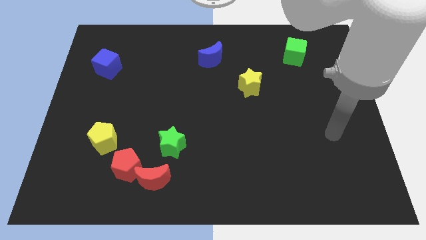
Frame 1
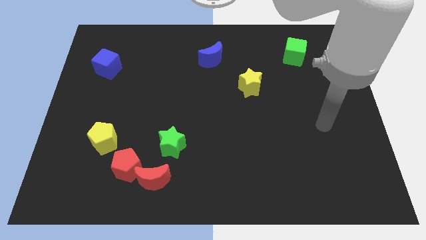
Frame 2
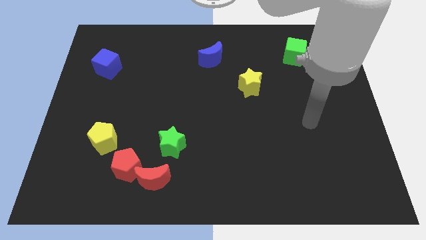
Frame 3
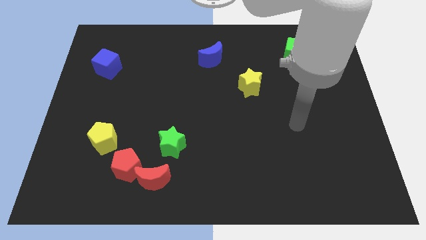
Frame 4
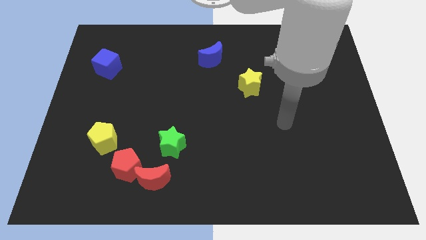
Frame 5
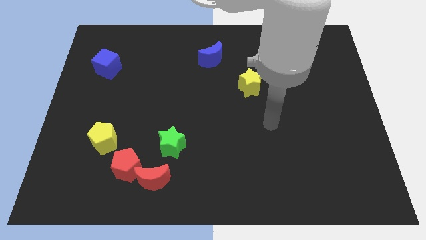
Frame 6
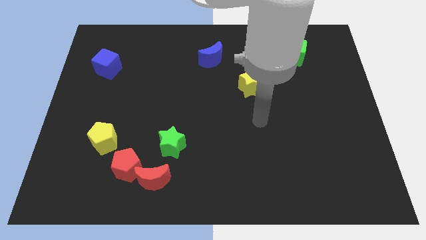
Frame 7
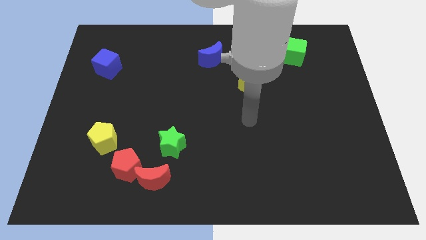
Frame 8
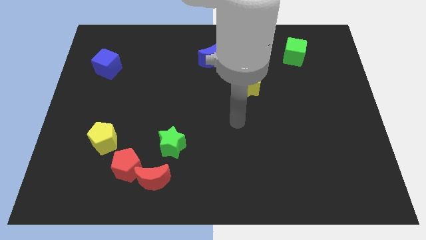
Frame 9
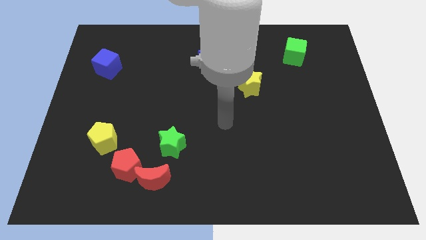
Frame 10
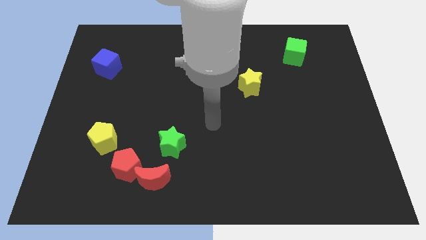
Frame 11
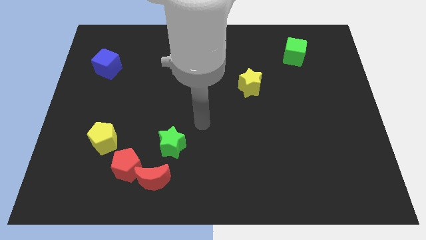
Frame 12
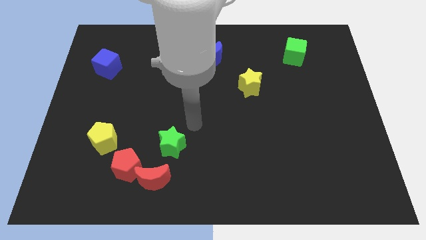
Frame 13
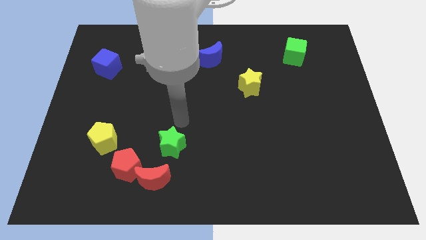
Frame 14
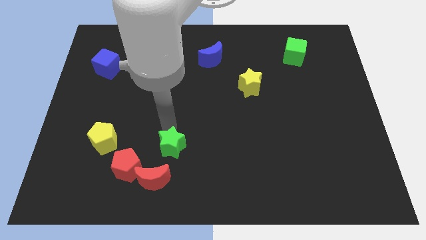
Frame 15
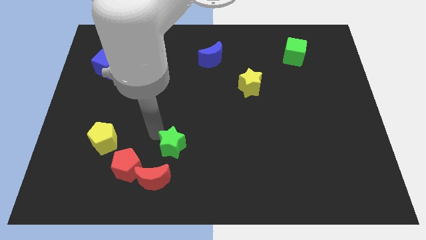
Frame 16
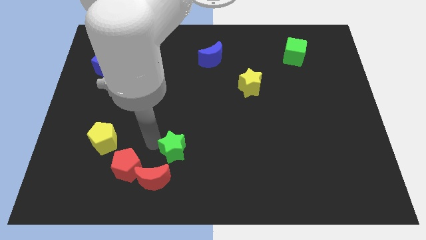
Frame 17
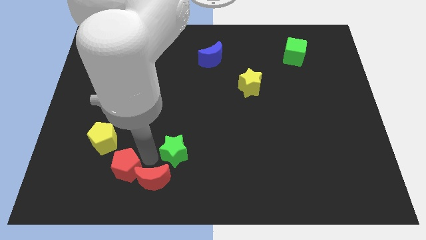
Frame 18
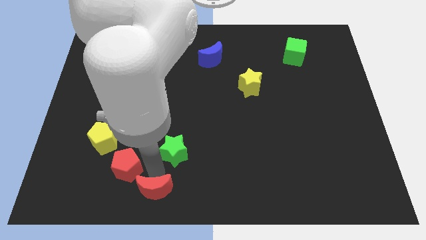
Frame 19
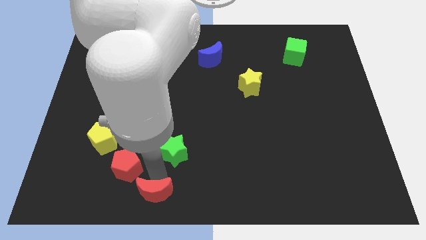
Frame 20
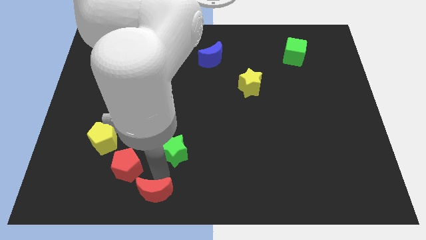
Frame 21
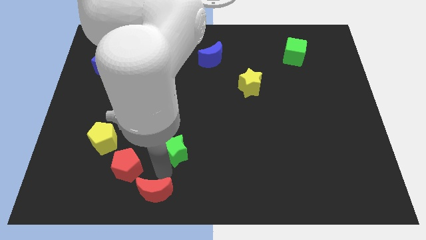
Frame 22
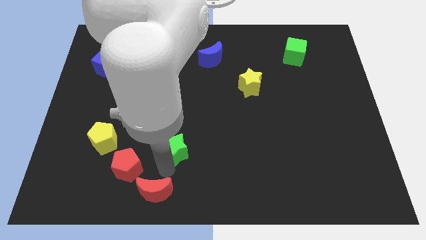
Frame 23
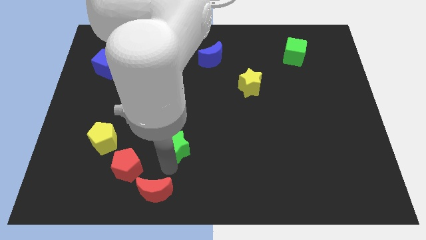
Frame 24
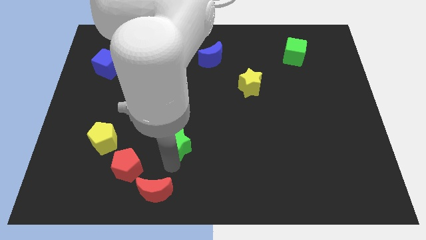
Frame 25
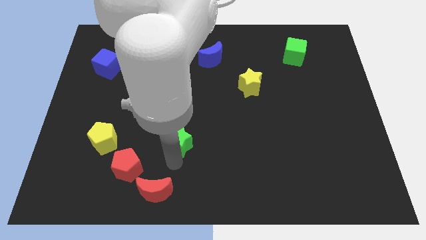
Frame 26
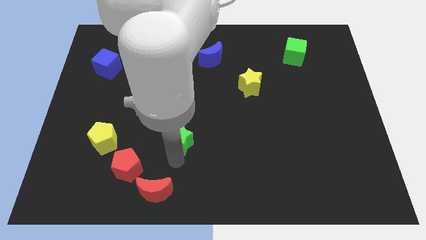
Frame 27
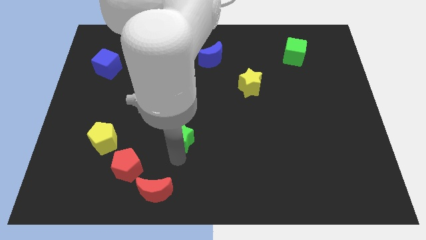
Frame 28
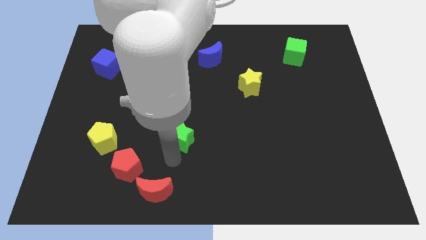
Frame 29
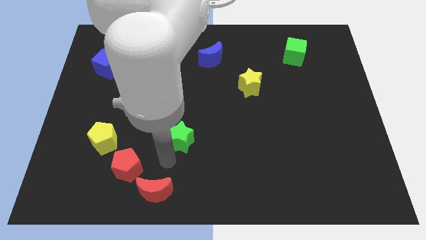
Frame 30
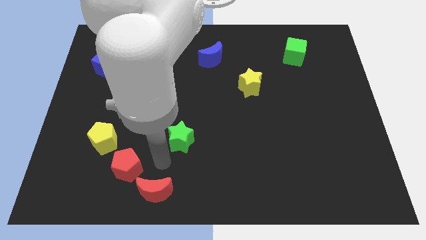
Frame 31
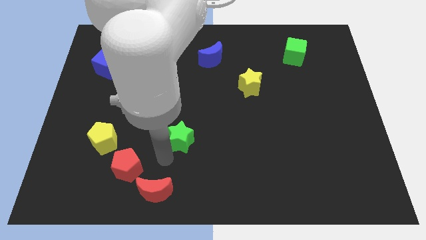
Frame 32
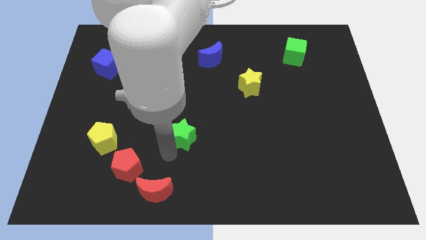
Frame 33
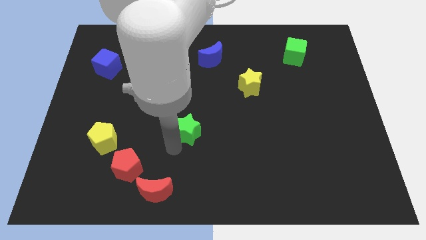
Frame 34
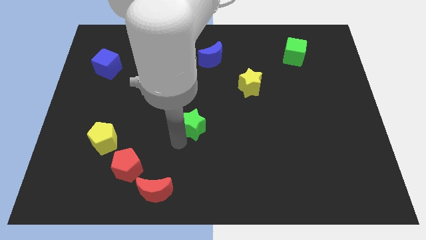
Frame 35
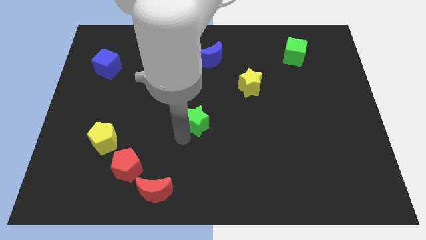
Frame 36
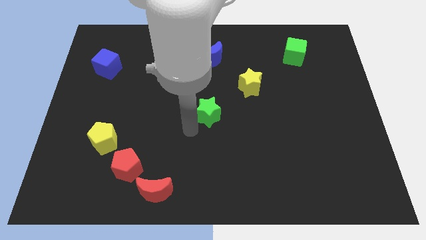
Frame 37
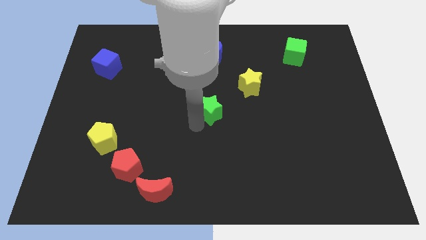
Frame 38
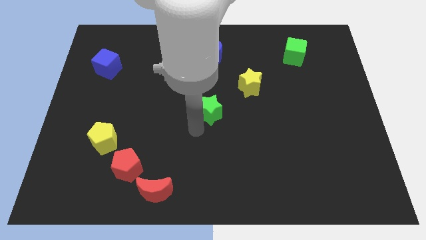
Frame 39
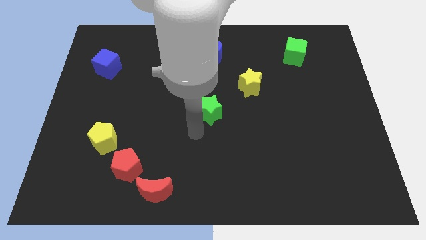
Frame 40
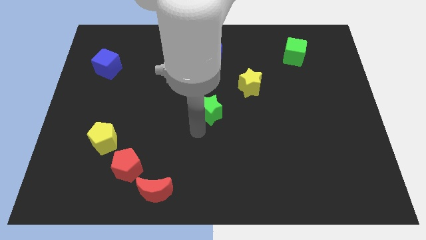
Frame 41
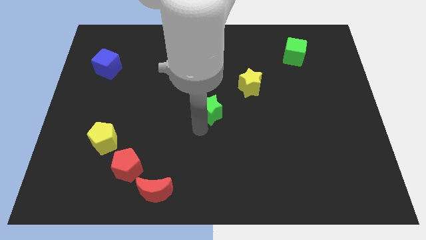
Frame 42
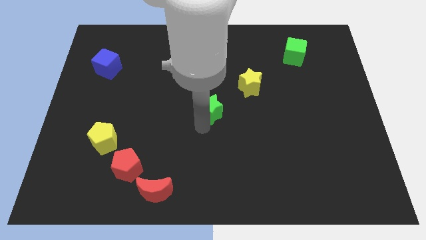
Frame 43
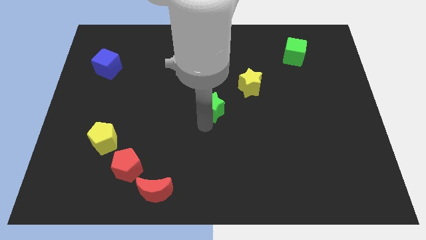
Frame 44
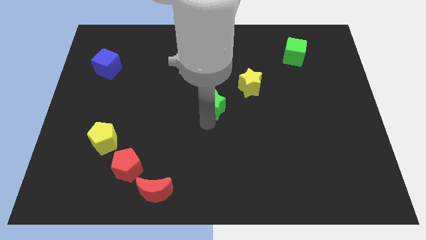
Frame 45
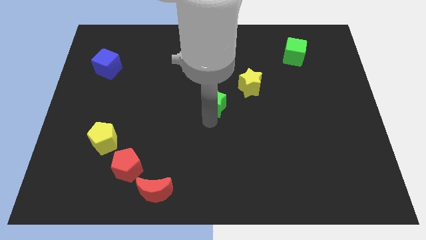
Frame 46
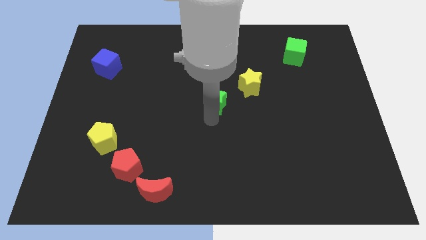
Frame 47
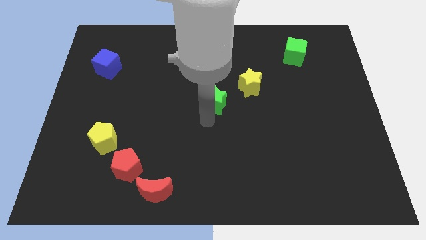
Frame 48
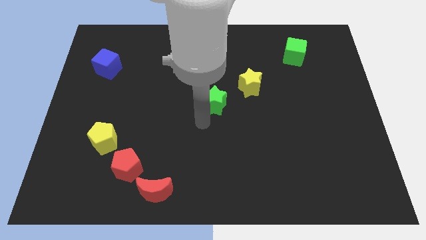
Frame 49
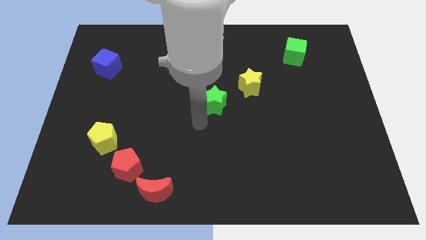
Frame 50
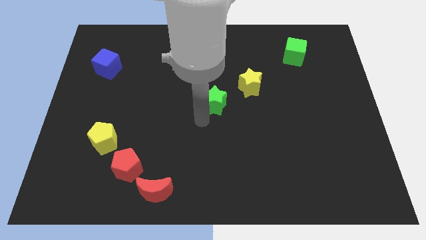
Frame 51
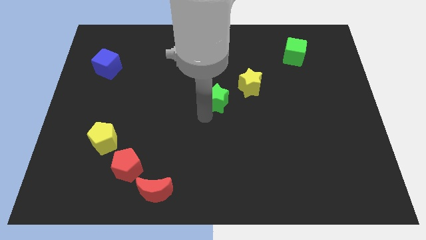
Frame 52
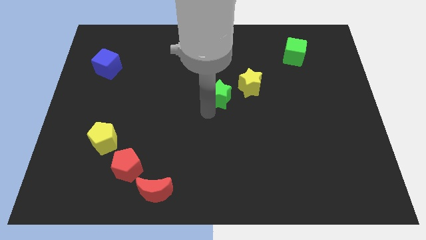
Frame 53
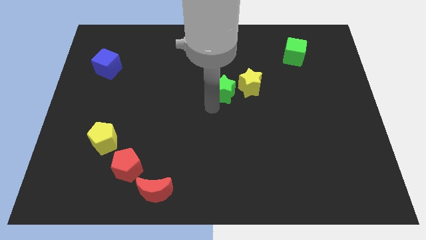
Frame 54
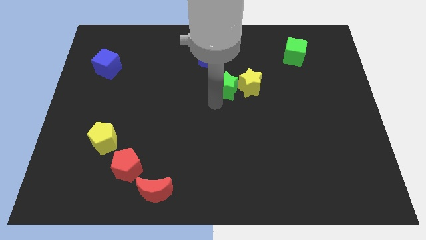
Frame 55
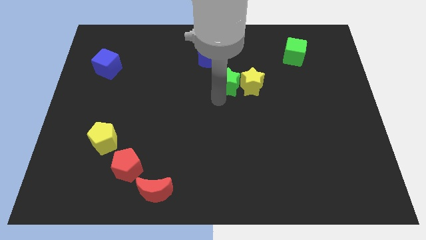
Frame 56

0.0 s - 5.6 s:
move the green star up and to the right

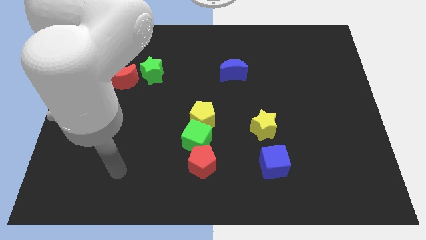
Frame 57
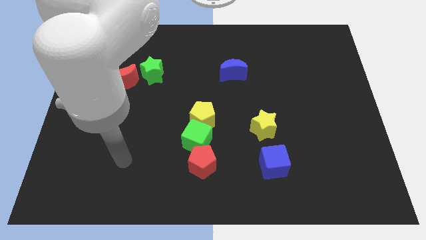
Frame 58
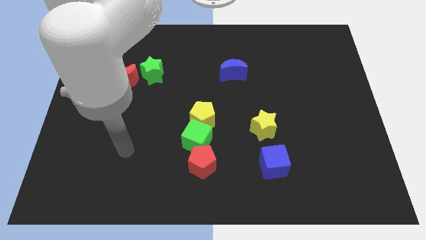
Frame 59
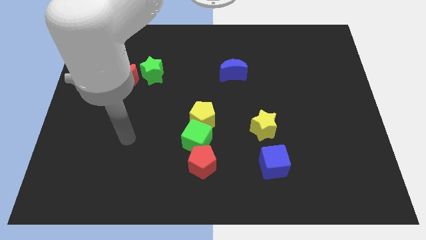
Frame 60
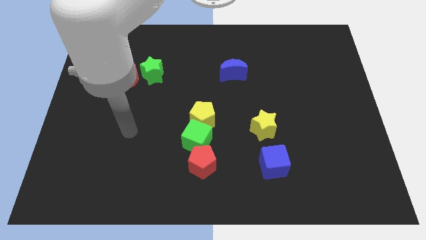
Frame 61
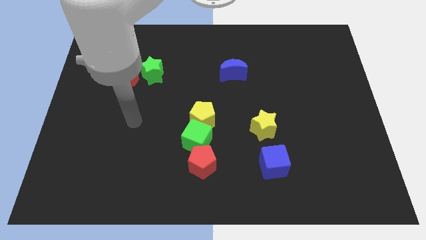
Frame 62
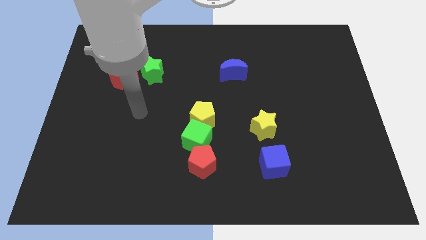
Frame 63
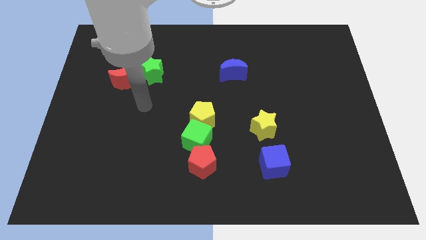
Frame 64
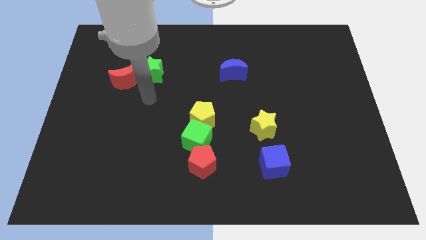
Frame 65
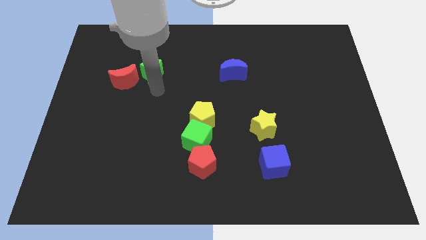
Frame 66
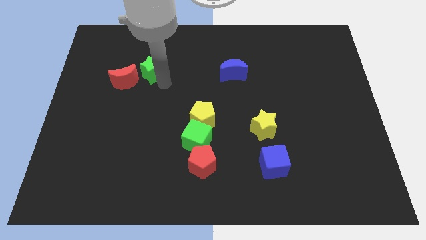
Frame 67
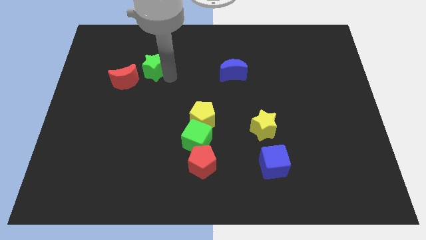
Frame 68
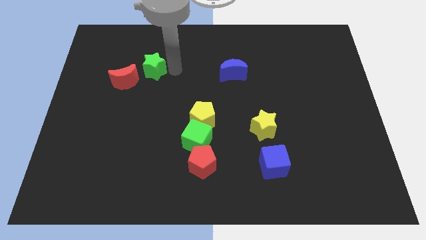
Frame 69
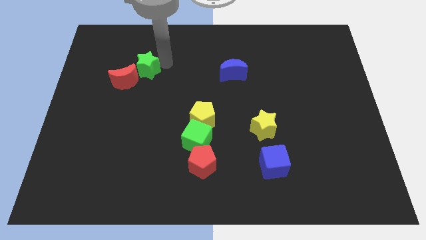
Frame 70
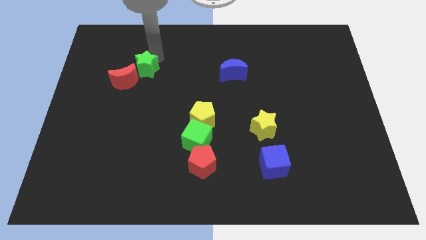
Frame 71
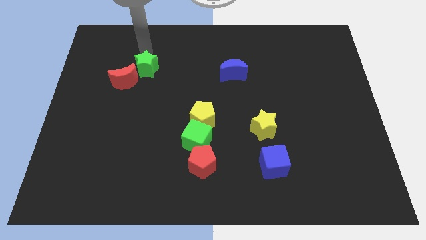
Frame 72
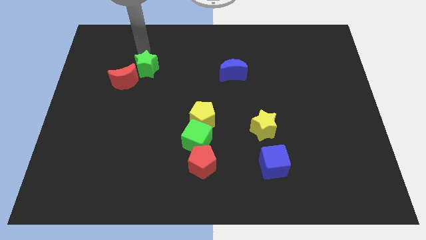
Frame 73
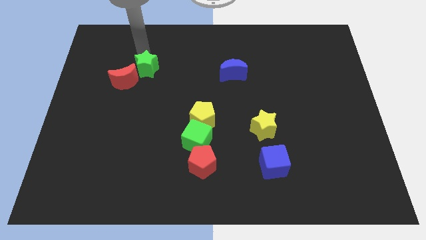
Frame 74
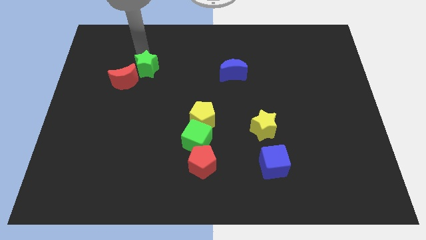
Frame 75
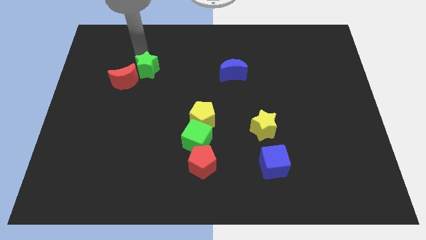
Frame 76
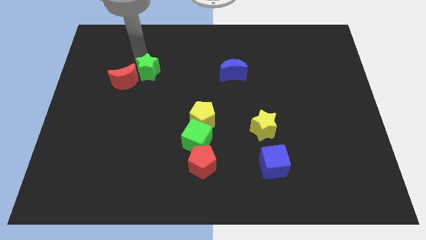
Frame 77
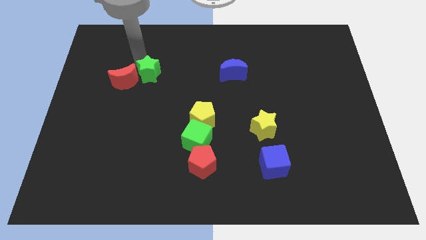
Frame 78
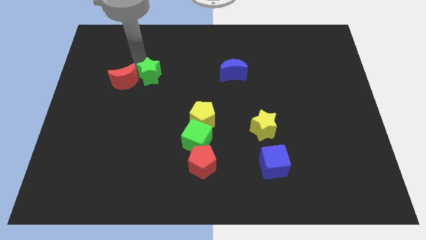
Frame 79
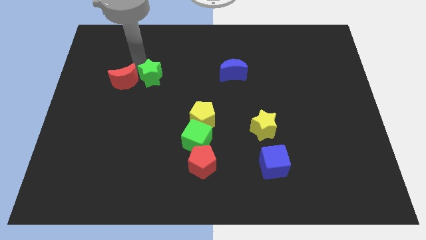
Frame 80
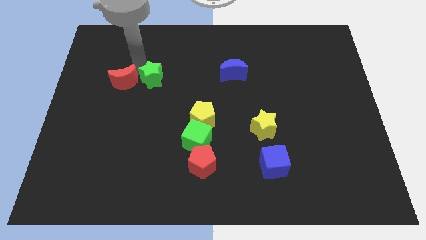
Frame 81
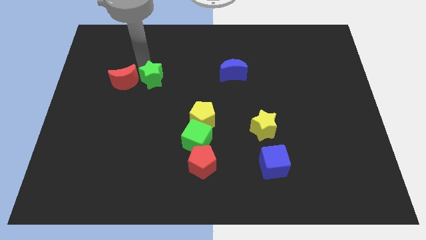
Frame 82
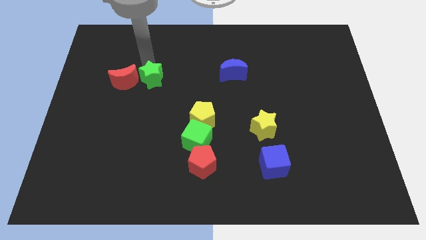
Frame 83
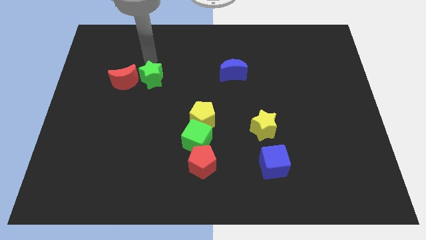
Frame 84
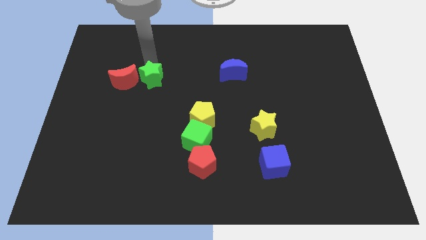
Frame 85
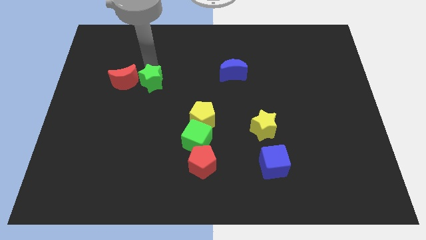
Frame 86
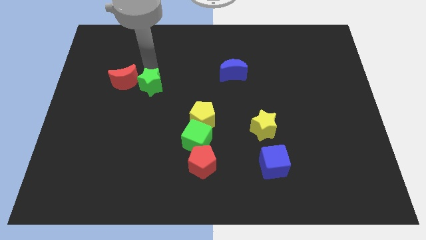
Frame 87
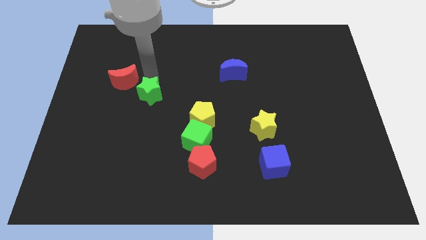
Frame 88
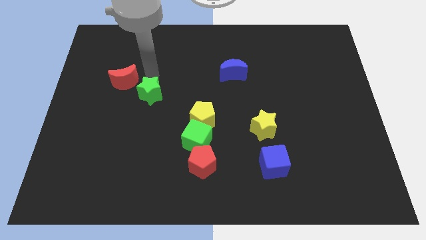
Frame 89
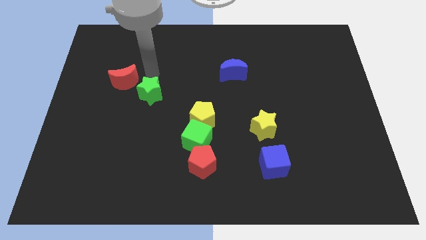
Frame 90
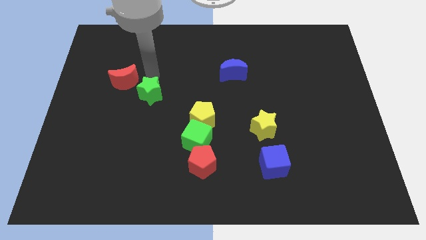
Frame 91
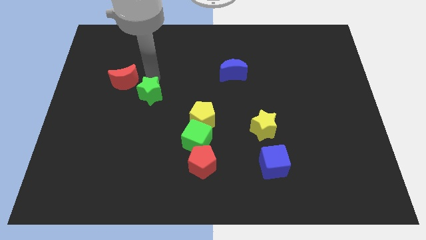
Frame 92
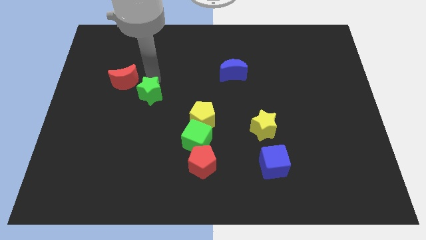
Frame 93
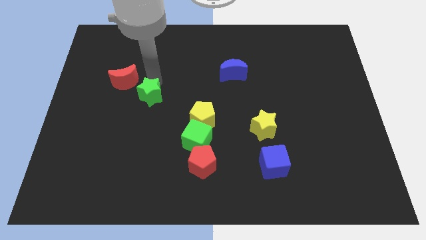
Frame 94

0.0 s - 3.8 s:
push the green star a little downwards
